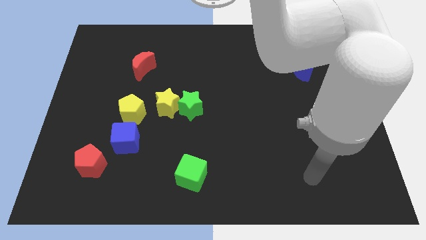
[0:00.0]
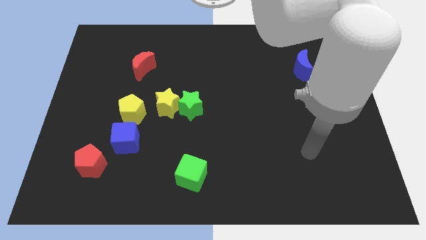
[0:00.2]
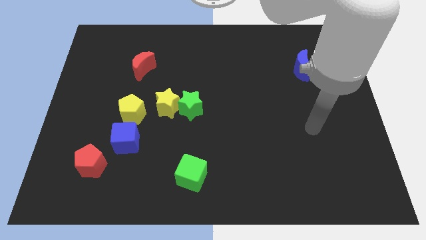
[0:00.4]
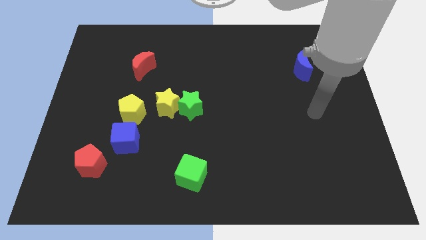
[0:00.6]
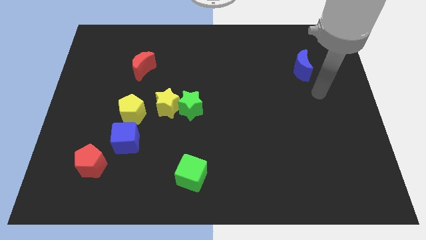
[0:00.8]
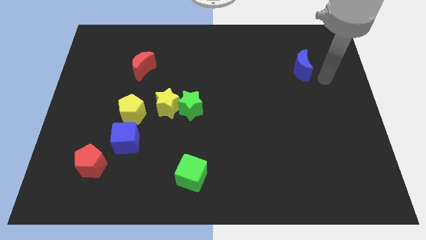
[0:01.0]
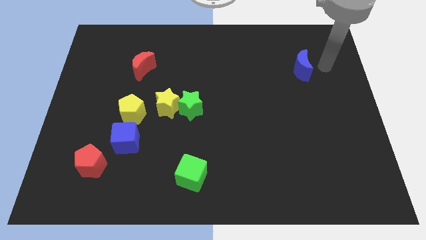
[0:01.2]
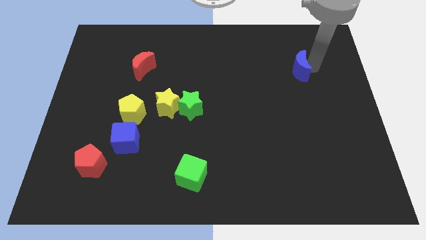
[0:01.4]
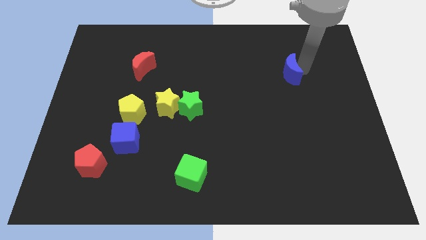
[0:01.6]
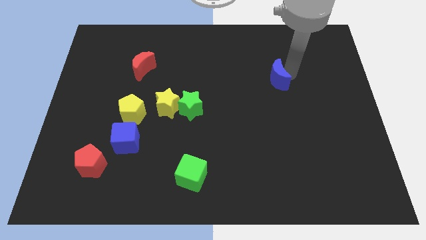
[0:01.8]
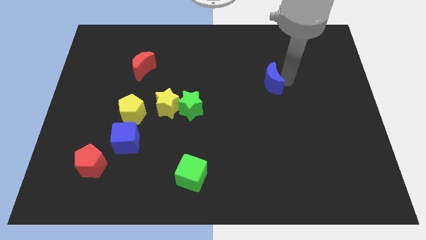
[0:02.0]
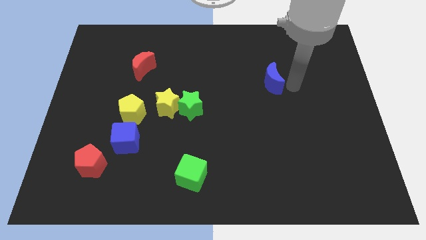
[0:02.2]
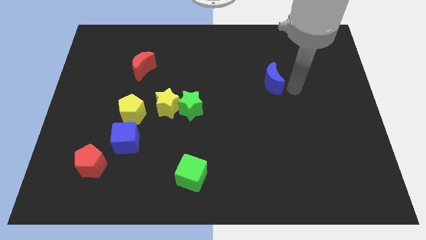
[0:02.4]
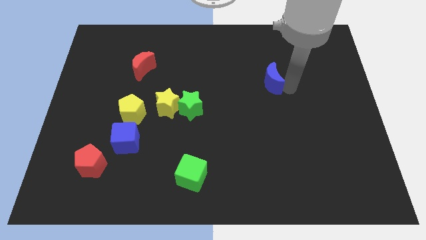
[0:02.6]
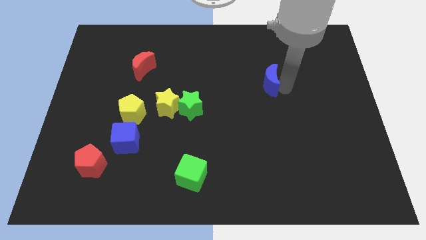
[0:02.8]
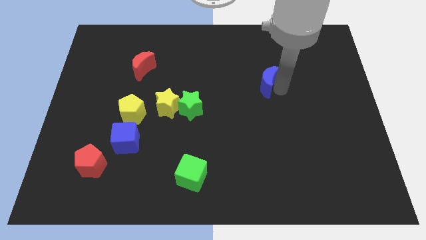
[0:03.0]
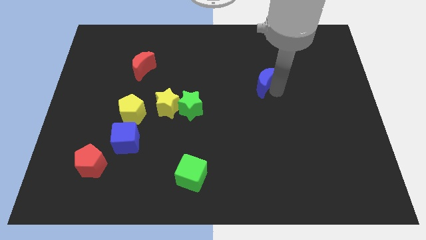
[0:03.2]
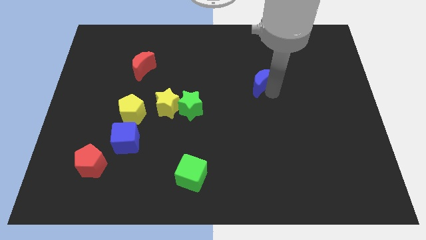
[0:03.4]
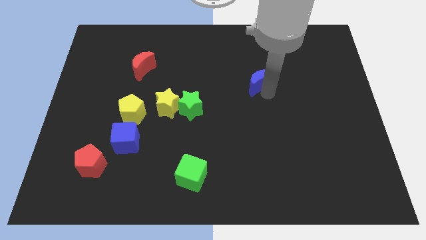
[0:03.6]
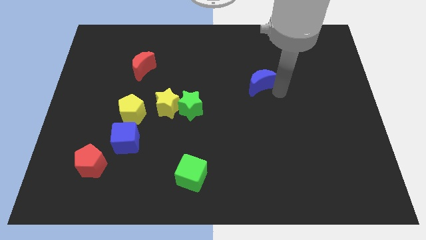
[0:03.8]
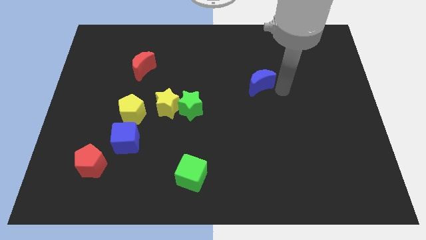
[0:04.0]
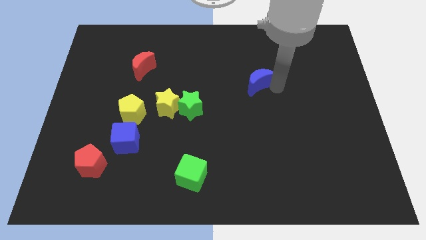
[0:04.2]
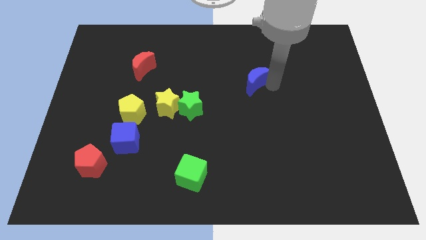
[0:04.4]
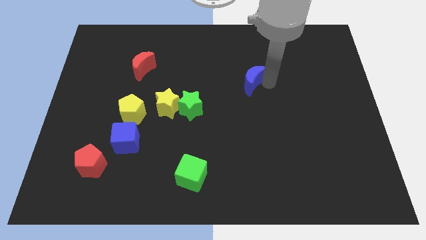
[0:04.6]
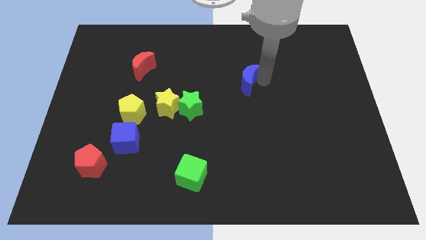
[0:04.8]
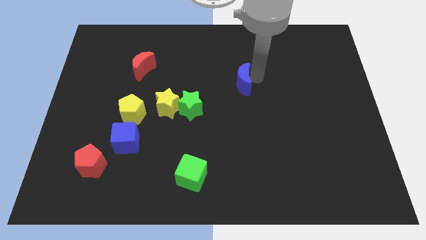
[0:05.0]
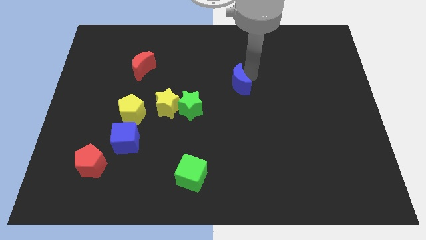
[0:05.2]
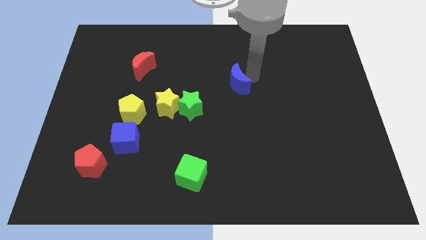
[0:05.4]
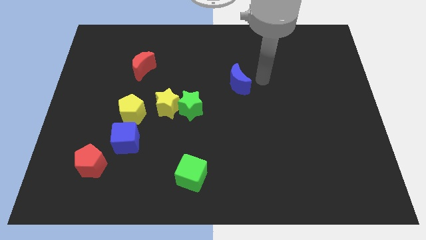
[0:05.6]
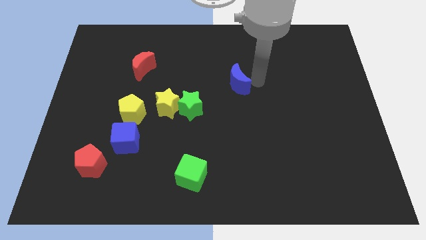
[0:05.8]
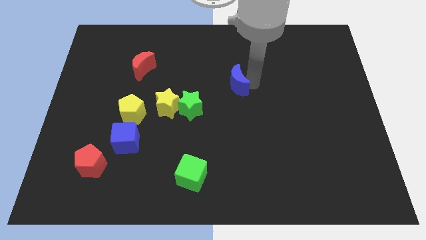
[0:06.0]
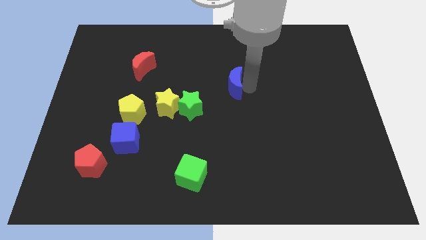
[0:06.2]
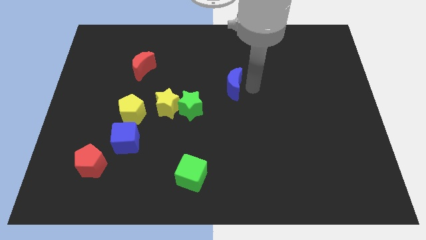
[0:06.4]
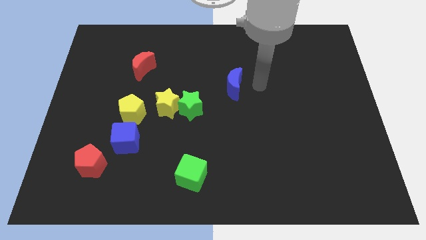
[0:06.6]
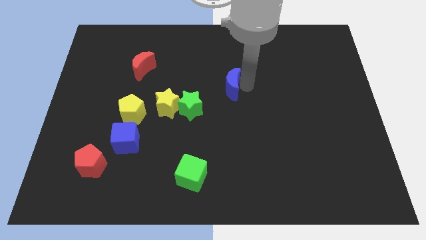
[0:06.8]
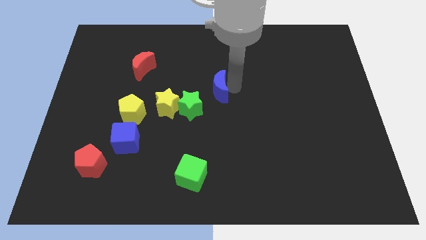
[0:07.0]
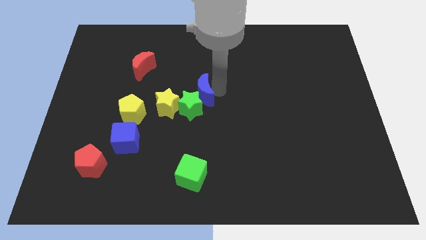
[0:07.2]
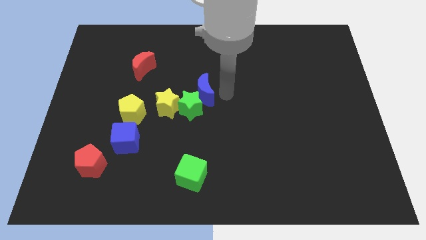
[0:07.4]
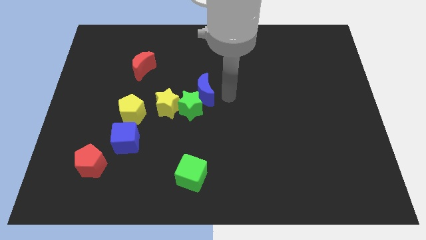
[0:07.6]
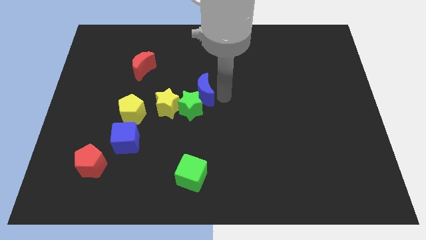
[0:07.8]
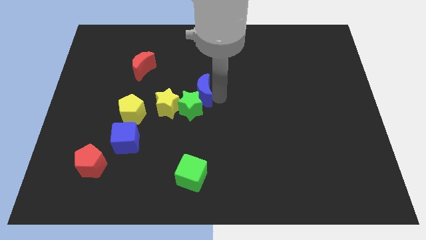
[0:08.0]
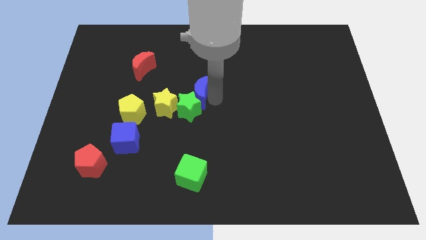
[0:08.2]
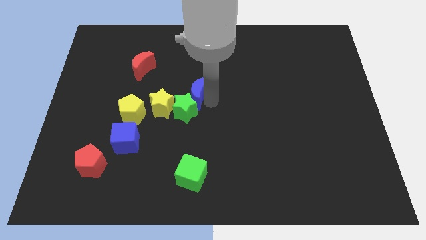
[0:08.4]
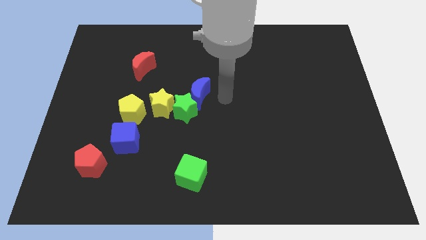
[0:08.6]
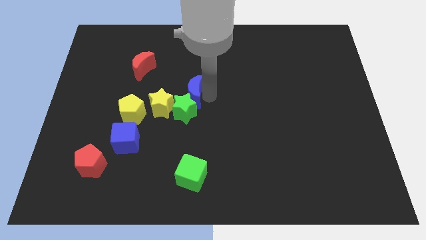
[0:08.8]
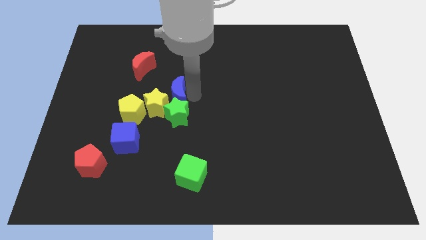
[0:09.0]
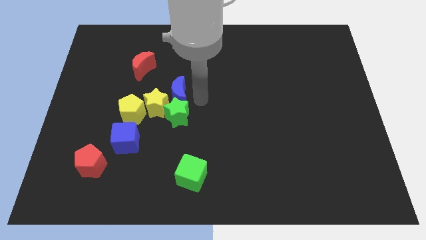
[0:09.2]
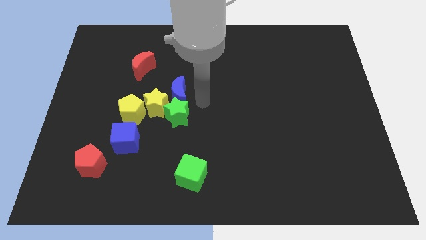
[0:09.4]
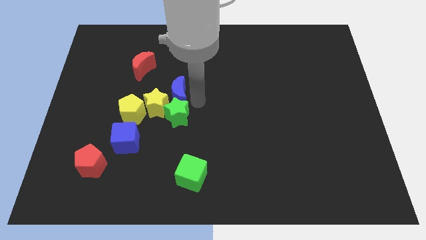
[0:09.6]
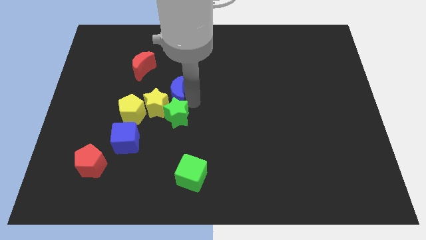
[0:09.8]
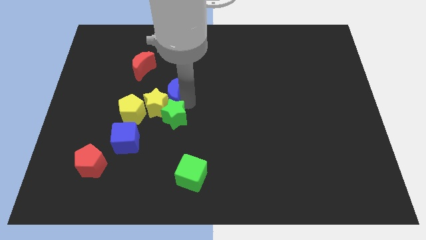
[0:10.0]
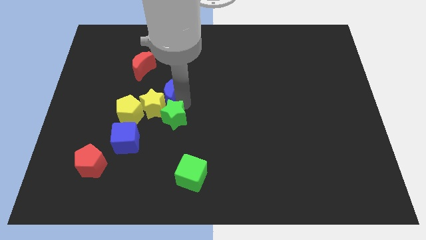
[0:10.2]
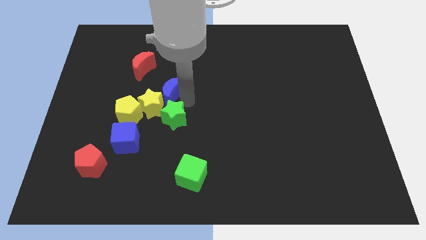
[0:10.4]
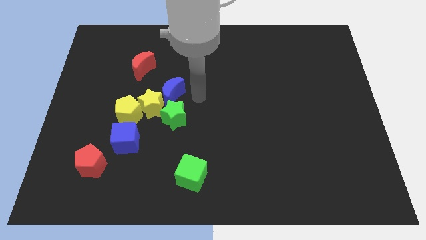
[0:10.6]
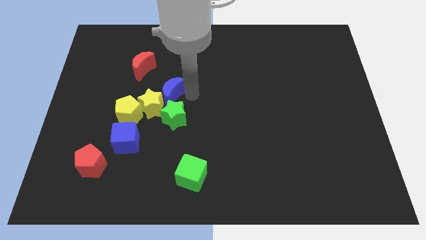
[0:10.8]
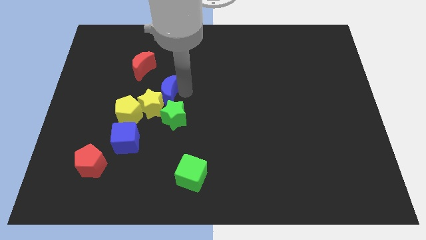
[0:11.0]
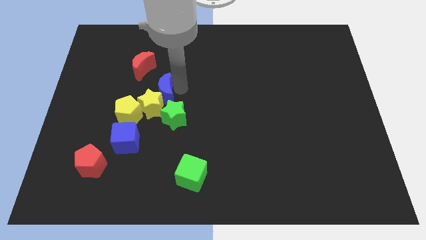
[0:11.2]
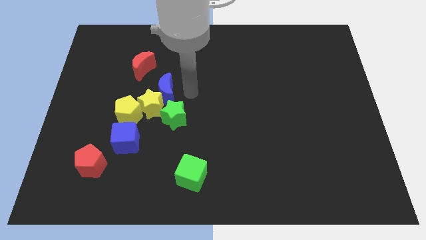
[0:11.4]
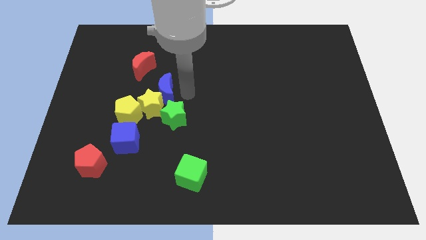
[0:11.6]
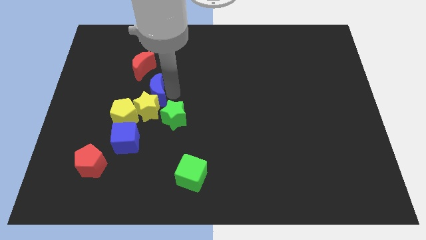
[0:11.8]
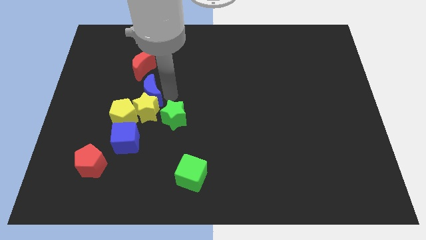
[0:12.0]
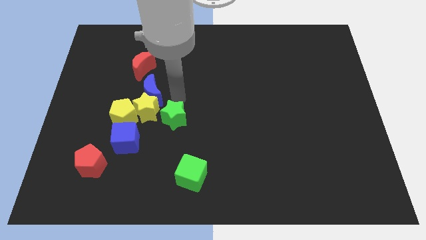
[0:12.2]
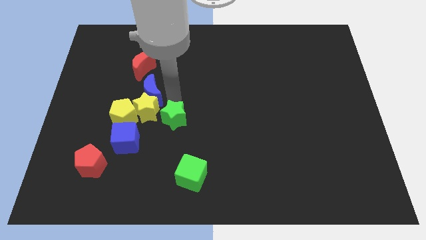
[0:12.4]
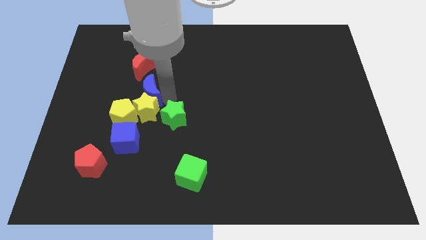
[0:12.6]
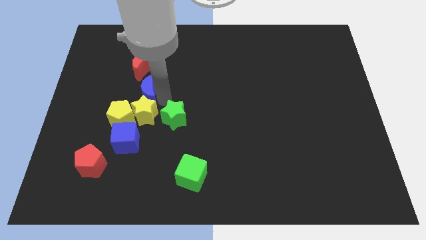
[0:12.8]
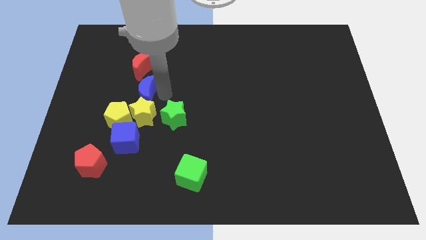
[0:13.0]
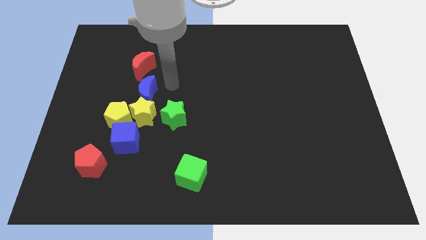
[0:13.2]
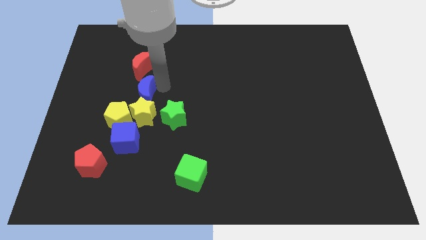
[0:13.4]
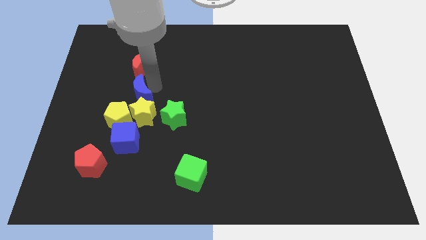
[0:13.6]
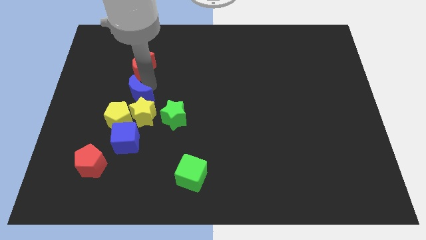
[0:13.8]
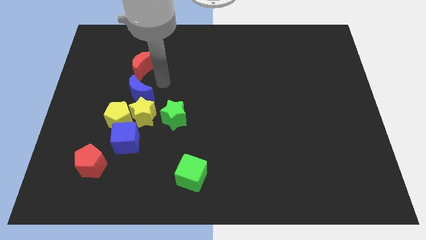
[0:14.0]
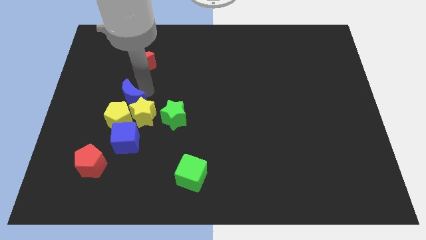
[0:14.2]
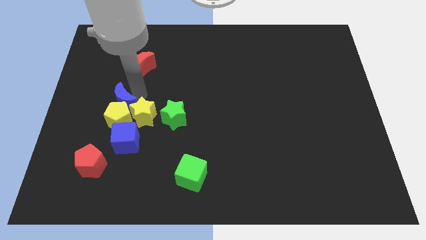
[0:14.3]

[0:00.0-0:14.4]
move the blue moon to the left of the yellow star

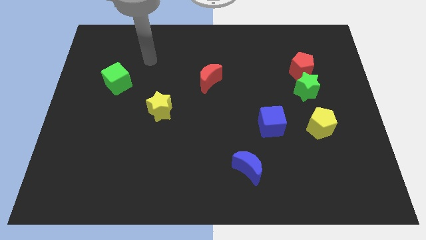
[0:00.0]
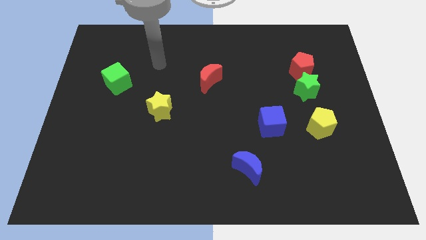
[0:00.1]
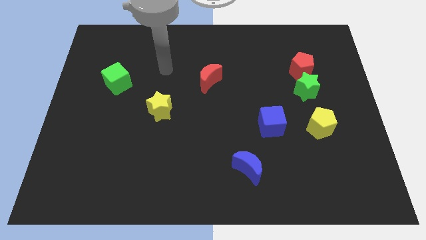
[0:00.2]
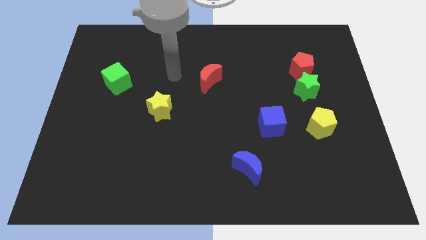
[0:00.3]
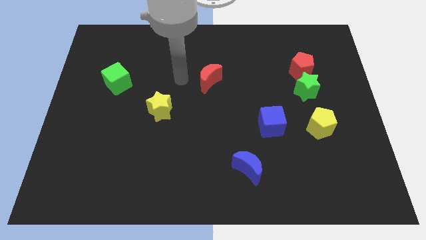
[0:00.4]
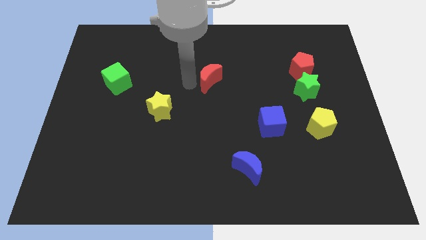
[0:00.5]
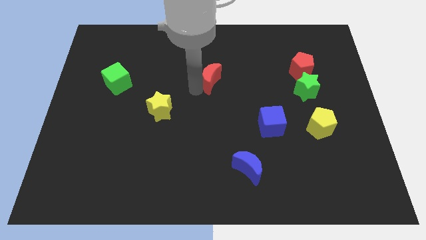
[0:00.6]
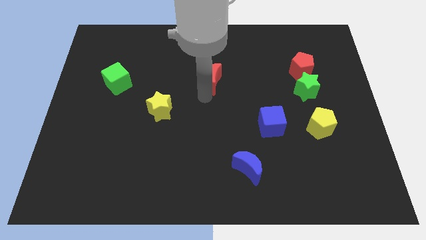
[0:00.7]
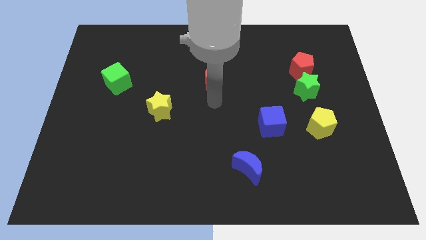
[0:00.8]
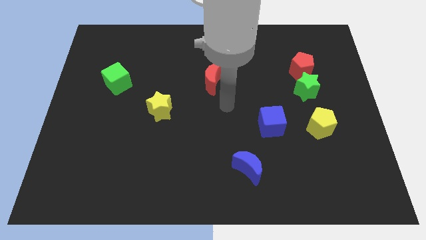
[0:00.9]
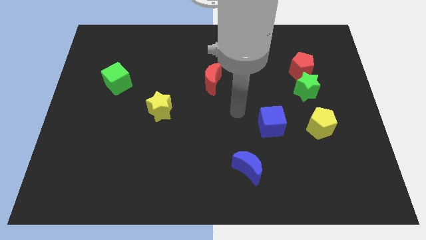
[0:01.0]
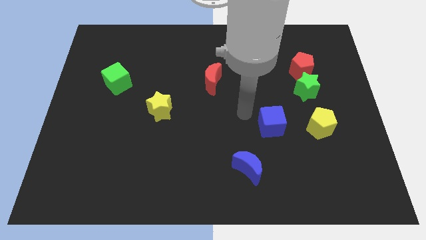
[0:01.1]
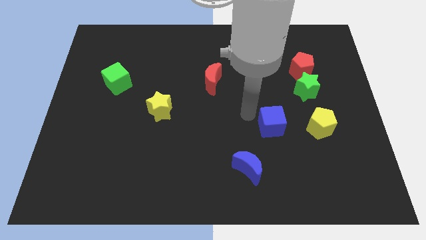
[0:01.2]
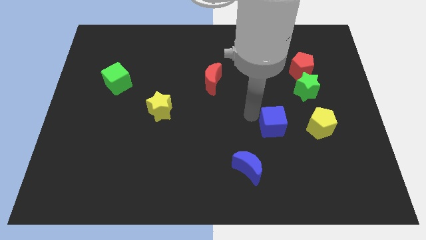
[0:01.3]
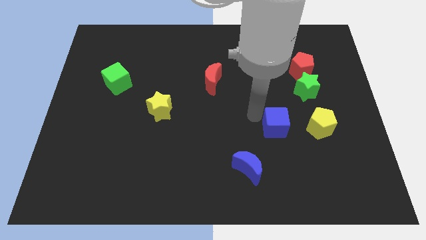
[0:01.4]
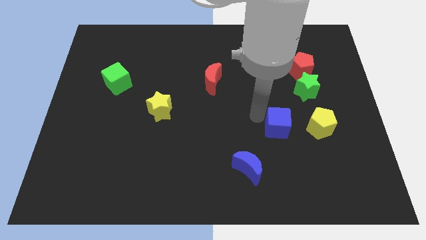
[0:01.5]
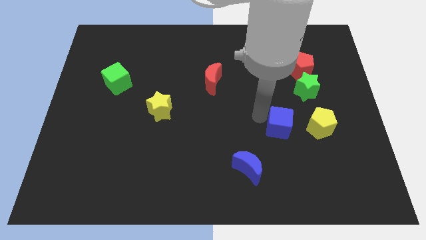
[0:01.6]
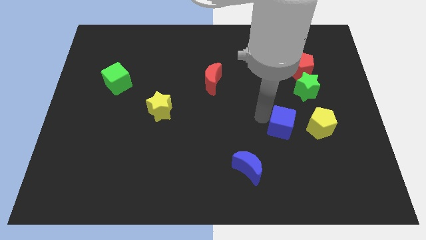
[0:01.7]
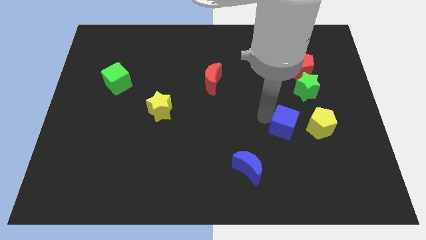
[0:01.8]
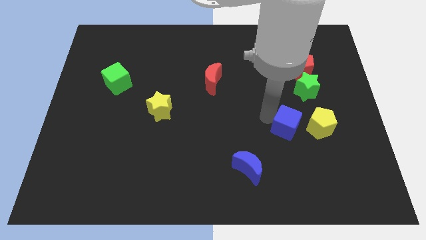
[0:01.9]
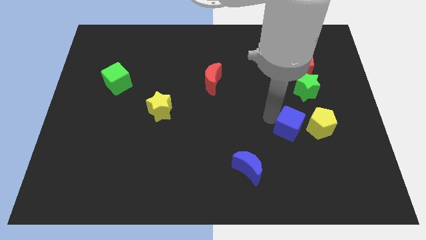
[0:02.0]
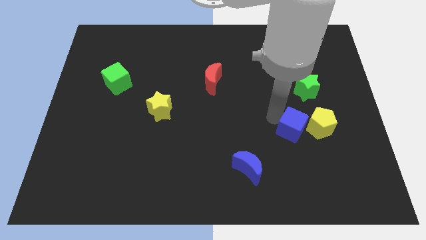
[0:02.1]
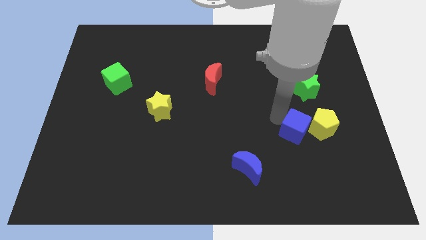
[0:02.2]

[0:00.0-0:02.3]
put the blue cube to the bottom side of the green star
